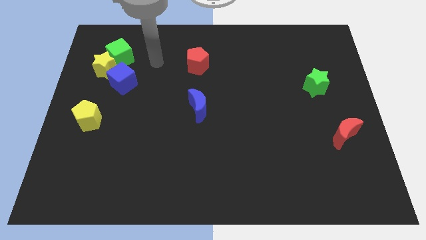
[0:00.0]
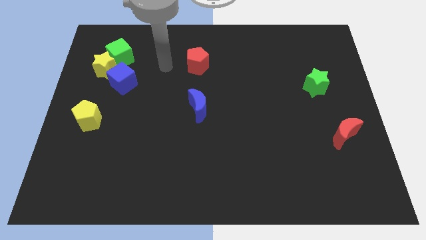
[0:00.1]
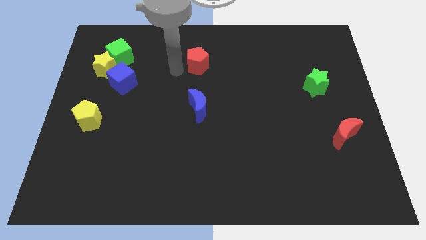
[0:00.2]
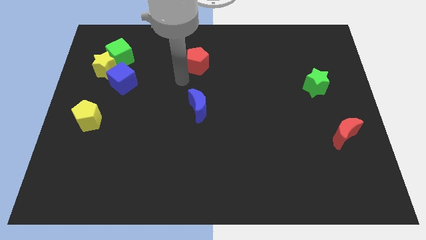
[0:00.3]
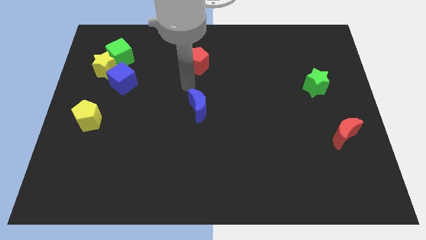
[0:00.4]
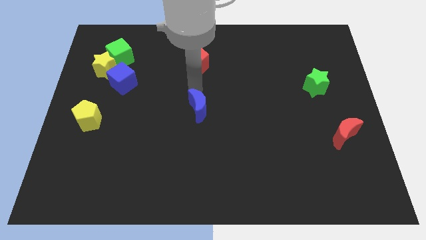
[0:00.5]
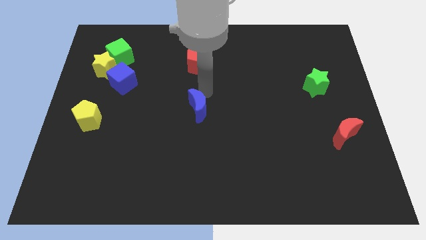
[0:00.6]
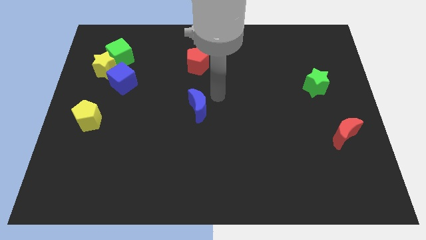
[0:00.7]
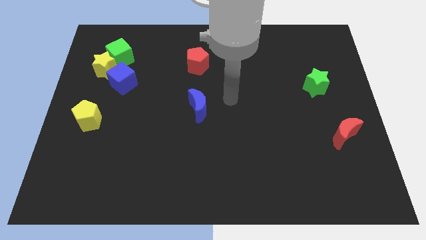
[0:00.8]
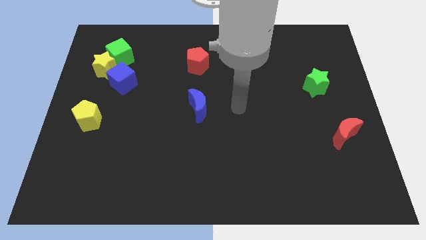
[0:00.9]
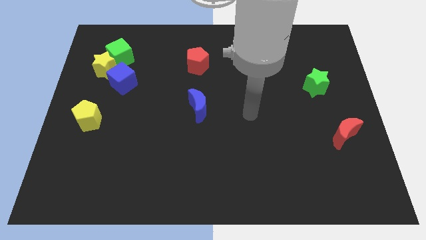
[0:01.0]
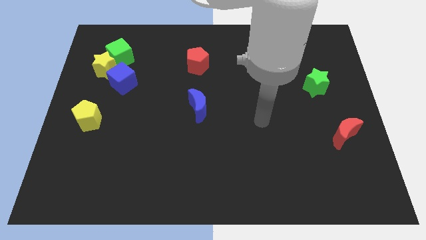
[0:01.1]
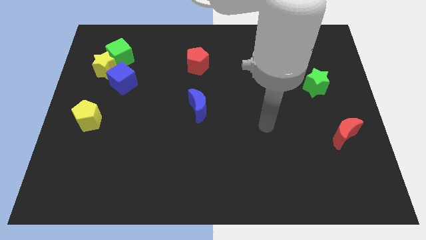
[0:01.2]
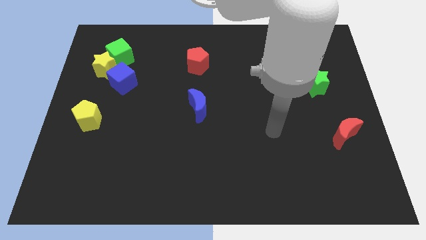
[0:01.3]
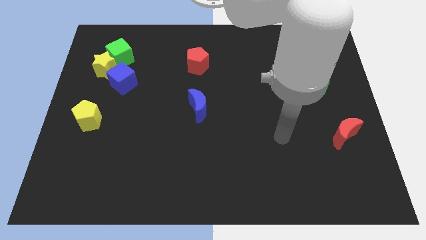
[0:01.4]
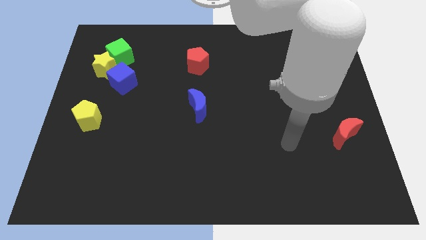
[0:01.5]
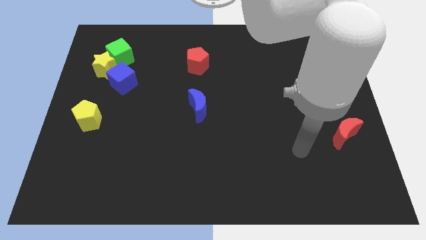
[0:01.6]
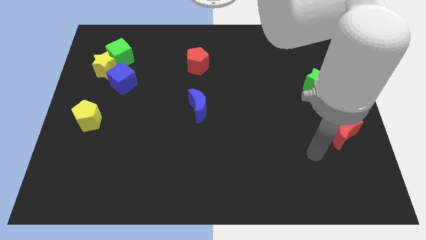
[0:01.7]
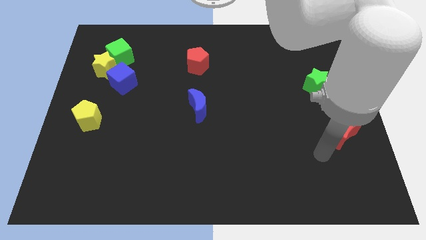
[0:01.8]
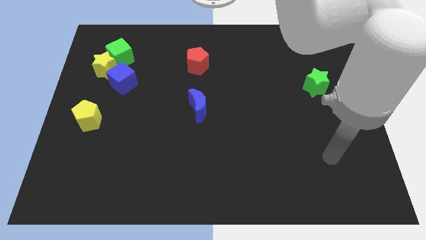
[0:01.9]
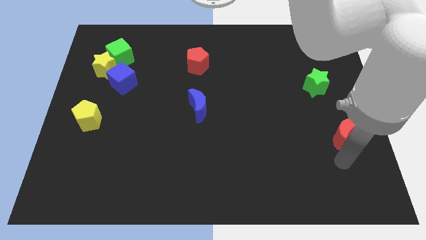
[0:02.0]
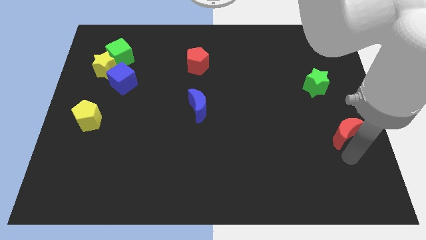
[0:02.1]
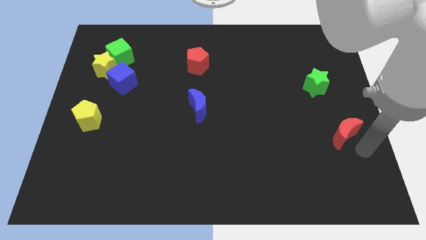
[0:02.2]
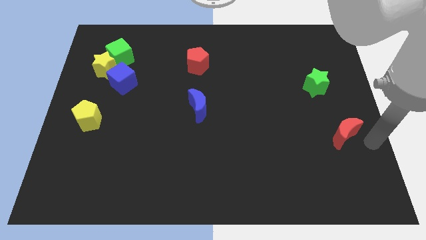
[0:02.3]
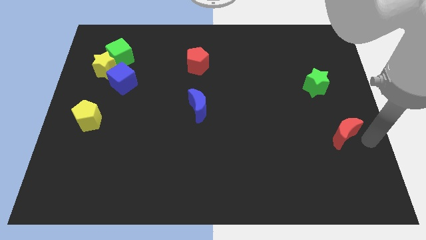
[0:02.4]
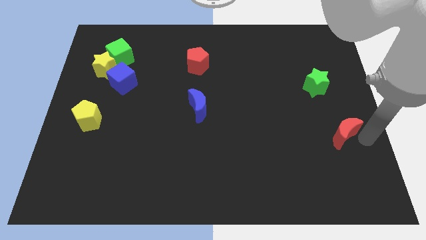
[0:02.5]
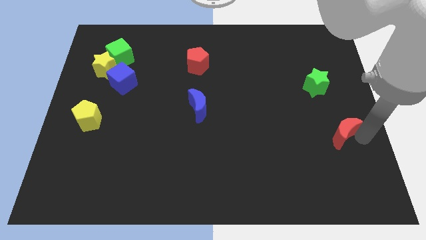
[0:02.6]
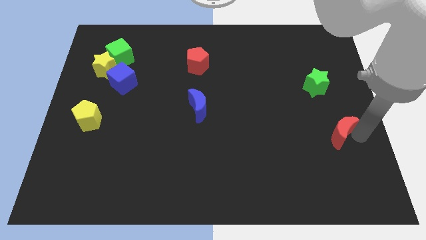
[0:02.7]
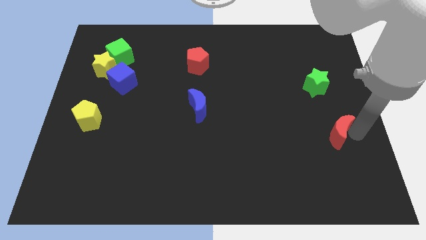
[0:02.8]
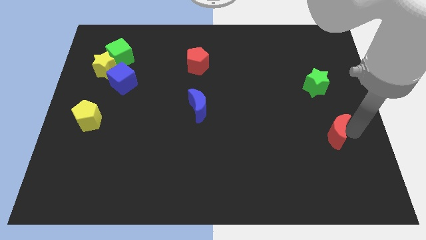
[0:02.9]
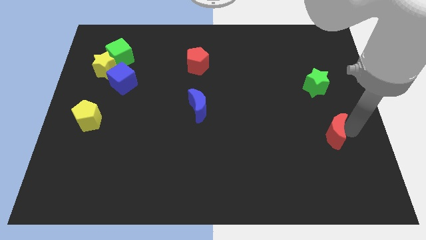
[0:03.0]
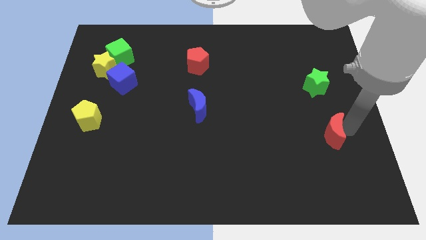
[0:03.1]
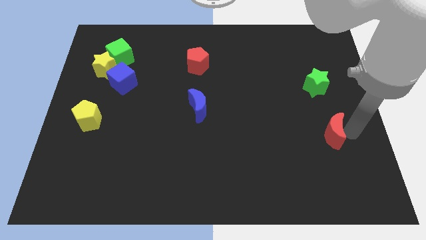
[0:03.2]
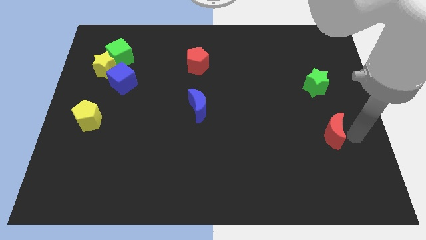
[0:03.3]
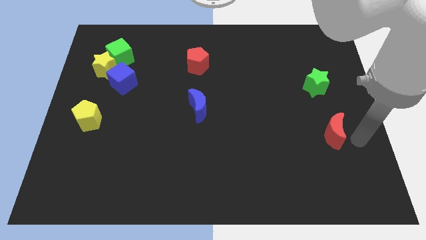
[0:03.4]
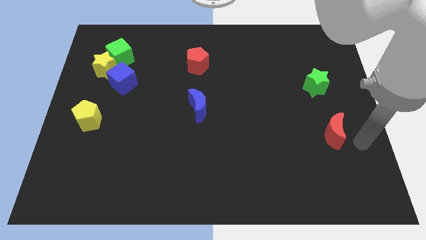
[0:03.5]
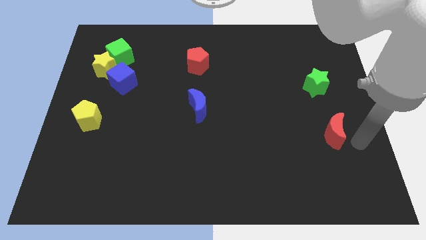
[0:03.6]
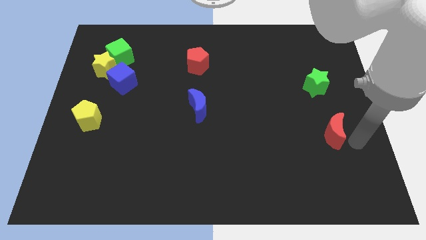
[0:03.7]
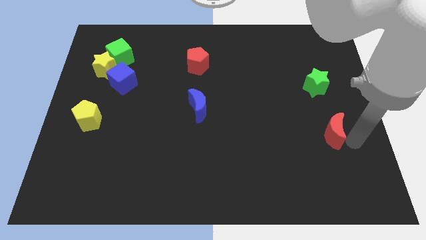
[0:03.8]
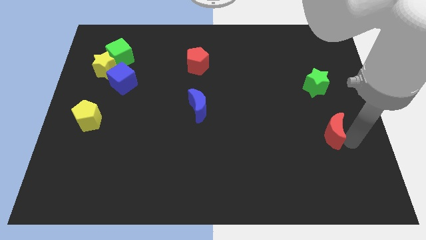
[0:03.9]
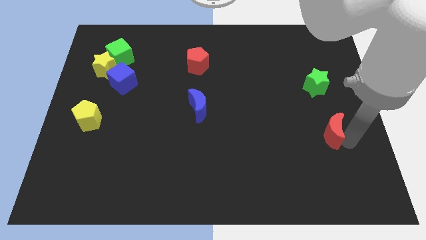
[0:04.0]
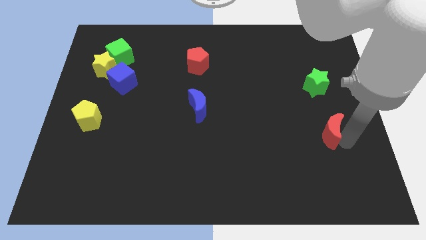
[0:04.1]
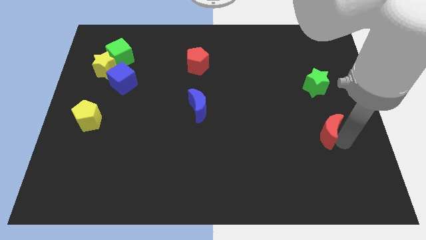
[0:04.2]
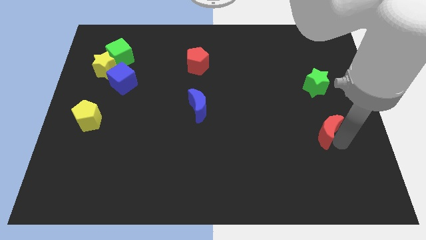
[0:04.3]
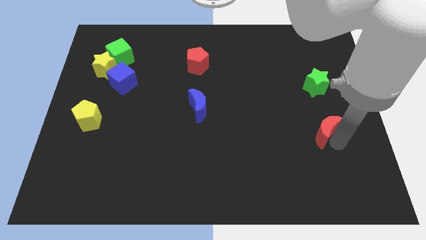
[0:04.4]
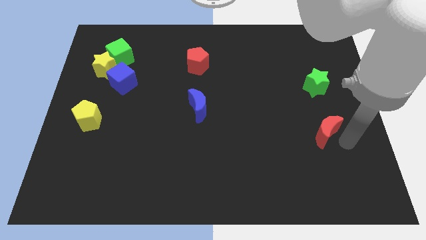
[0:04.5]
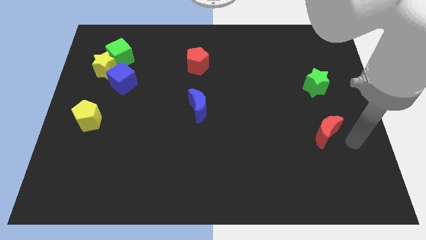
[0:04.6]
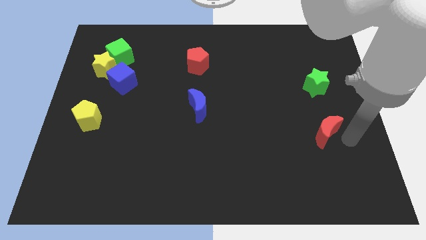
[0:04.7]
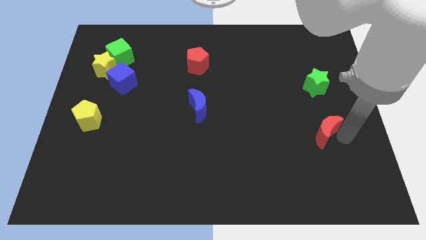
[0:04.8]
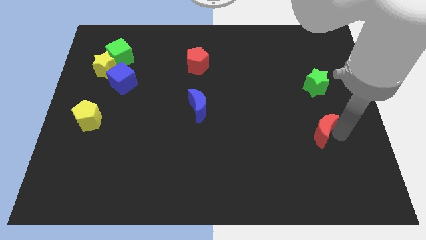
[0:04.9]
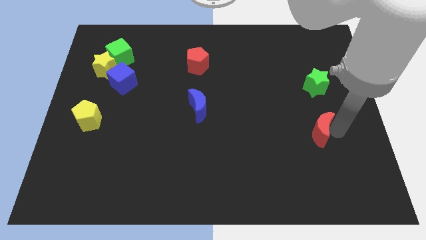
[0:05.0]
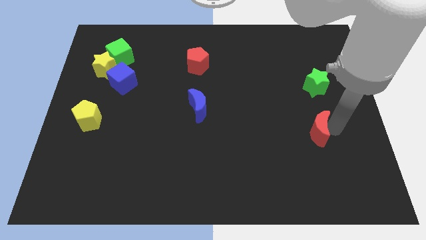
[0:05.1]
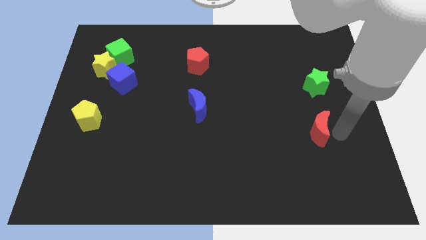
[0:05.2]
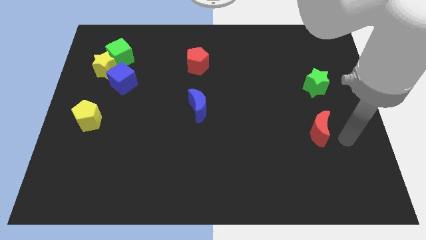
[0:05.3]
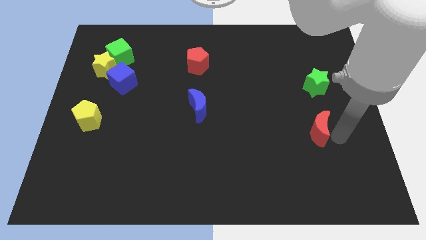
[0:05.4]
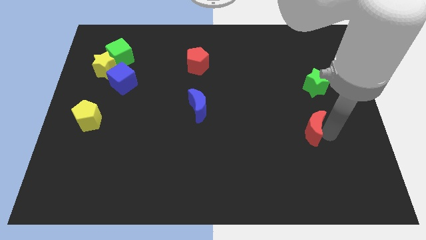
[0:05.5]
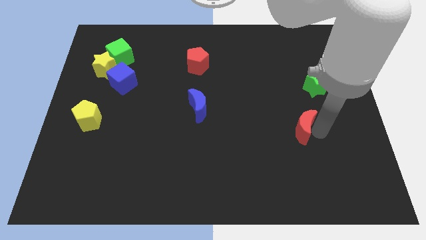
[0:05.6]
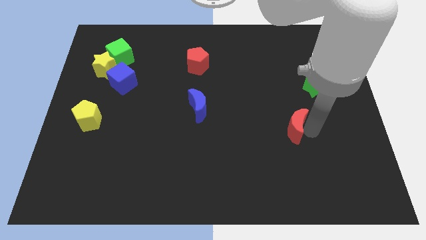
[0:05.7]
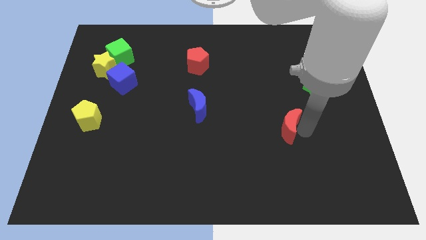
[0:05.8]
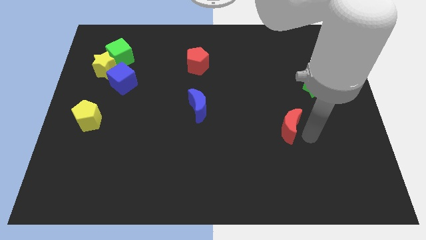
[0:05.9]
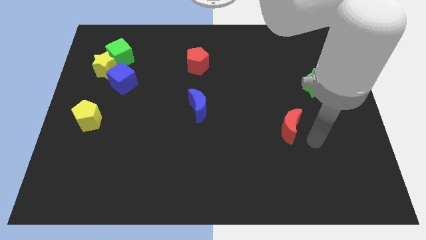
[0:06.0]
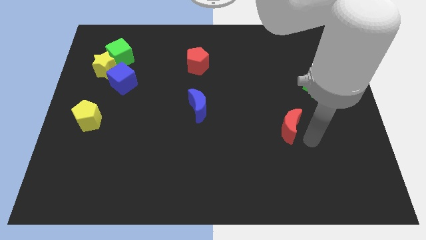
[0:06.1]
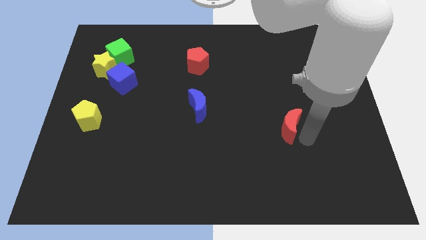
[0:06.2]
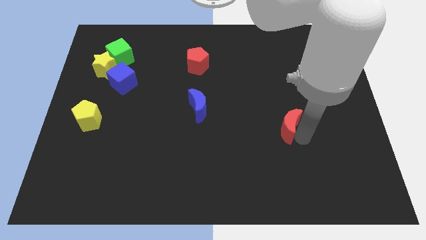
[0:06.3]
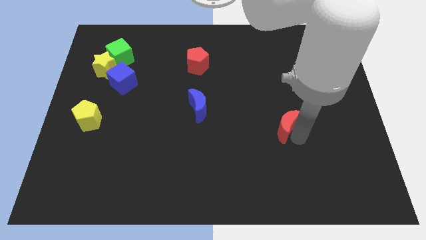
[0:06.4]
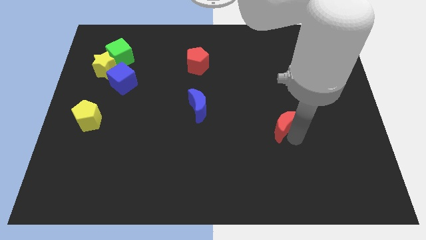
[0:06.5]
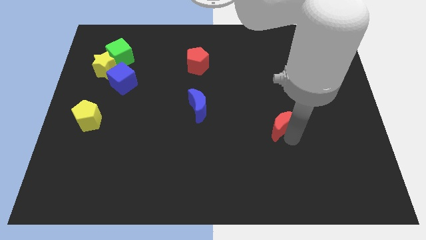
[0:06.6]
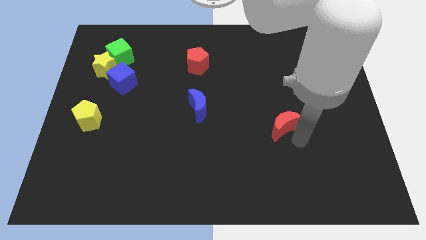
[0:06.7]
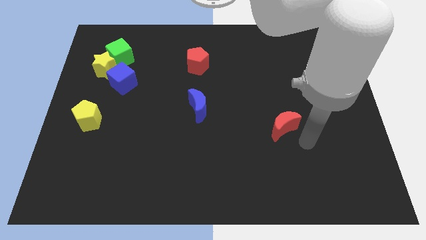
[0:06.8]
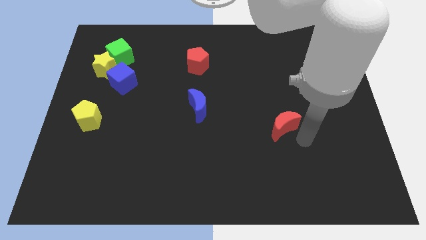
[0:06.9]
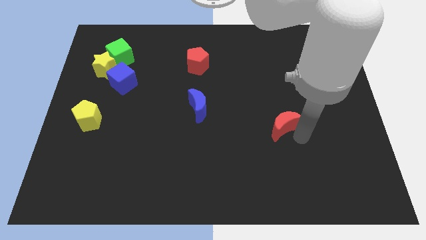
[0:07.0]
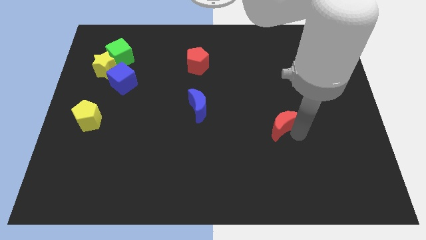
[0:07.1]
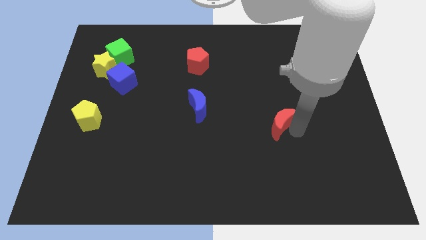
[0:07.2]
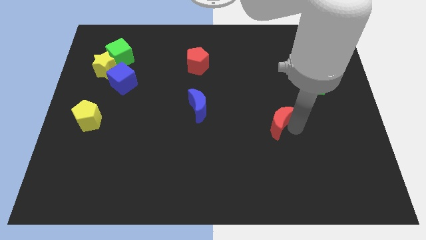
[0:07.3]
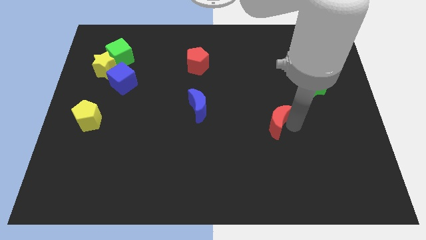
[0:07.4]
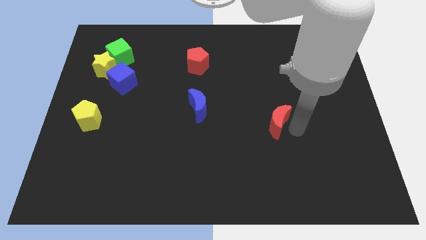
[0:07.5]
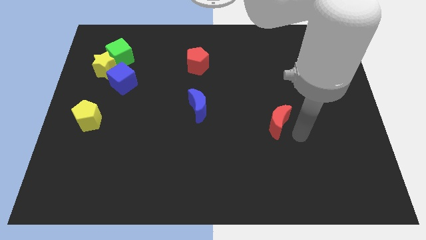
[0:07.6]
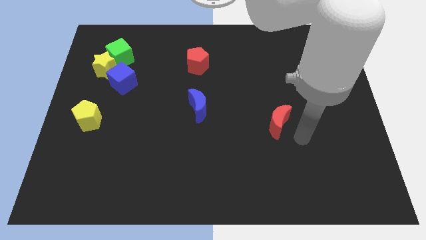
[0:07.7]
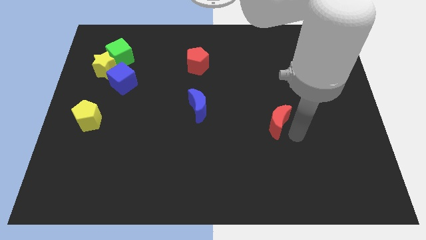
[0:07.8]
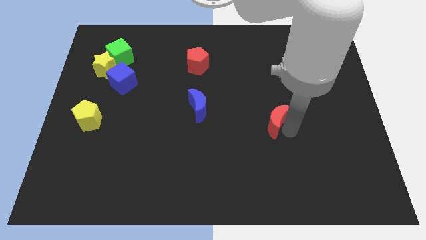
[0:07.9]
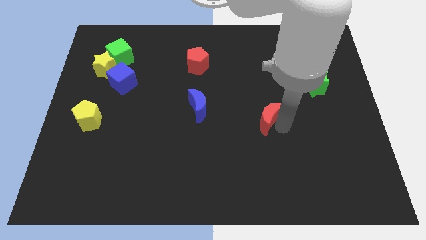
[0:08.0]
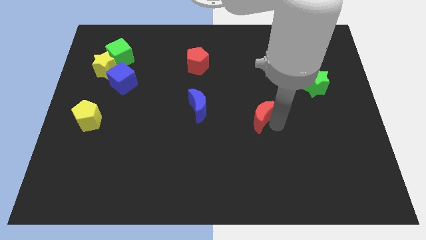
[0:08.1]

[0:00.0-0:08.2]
put the red moon to the center of the board
